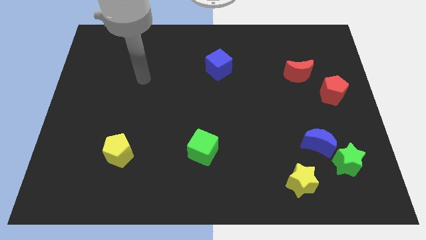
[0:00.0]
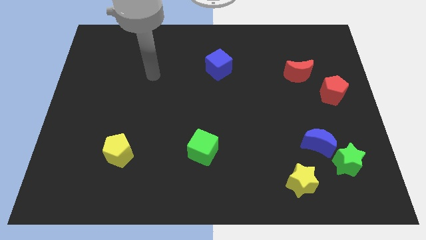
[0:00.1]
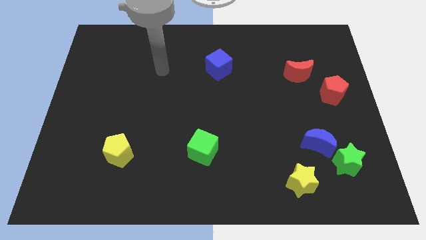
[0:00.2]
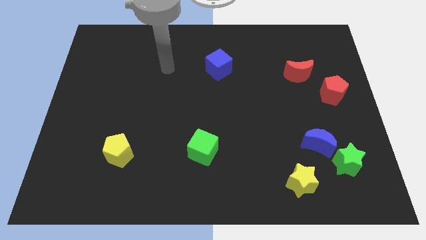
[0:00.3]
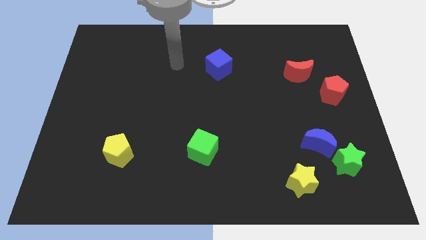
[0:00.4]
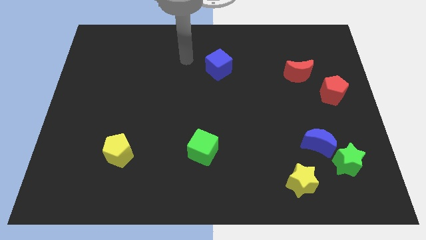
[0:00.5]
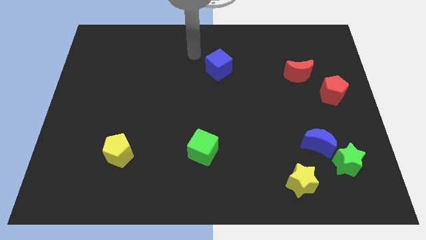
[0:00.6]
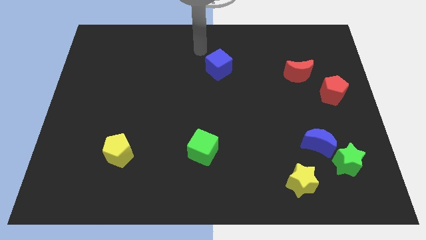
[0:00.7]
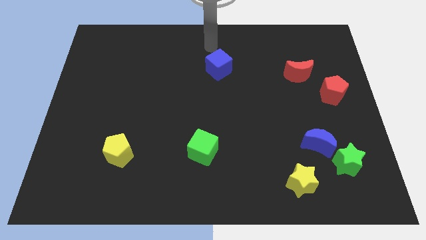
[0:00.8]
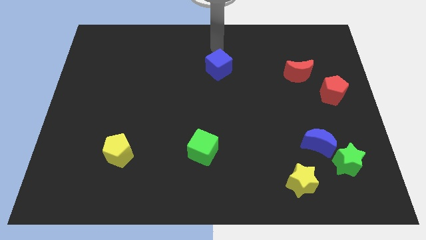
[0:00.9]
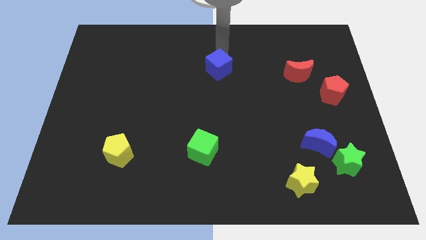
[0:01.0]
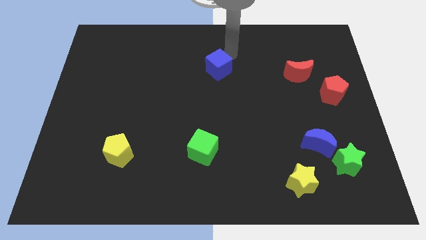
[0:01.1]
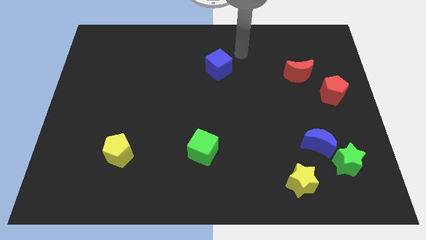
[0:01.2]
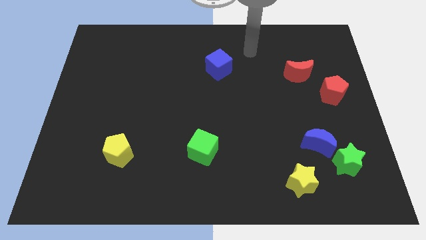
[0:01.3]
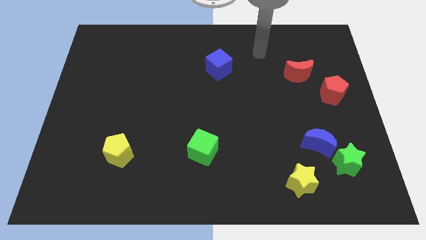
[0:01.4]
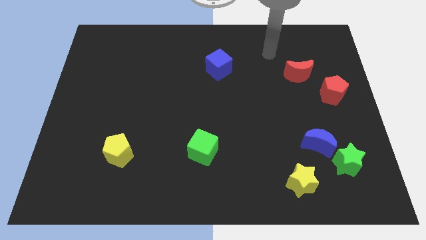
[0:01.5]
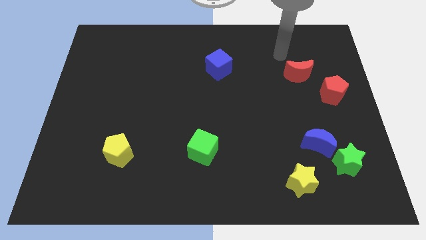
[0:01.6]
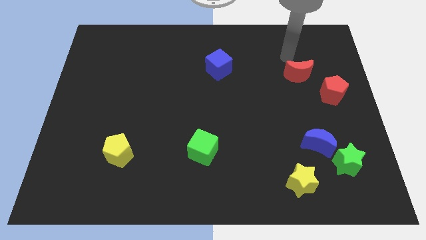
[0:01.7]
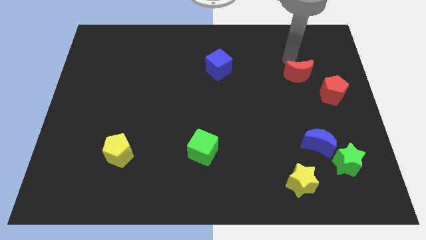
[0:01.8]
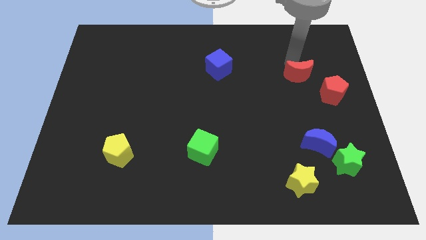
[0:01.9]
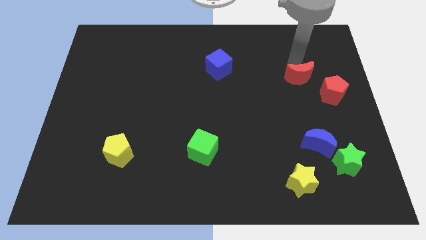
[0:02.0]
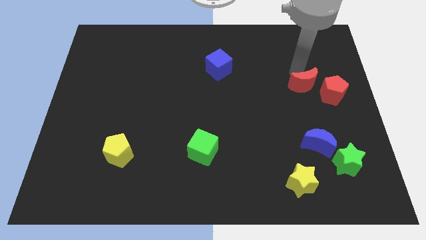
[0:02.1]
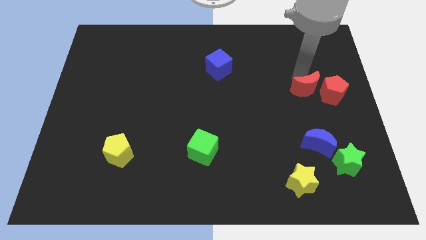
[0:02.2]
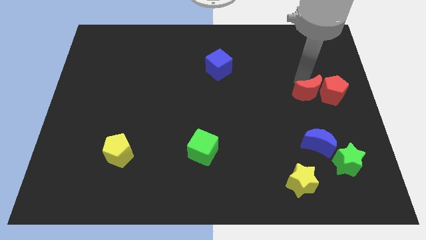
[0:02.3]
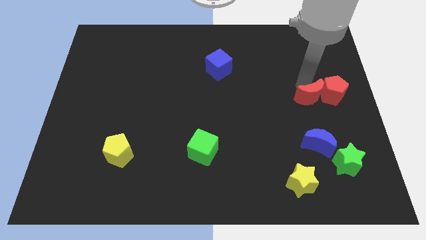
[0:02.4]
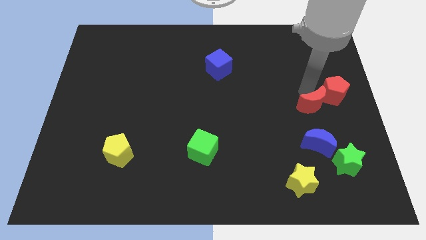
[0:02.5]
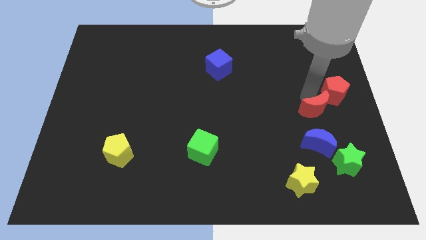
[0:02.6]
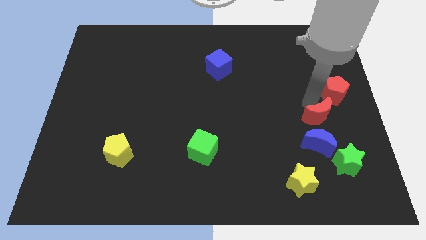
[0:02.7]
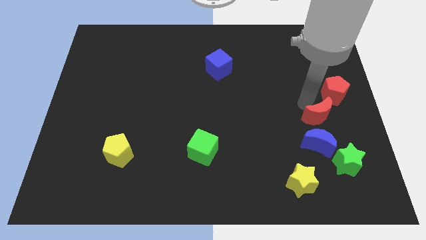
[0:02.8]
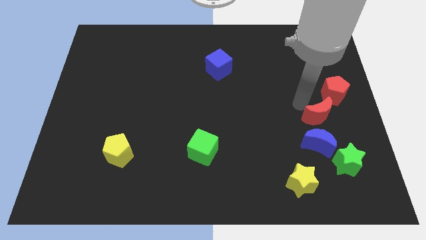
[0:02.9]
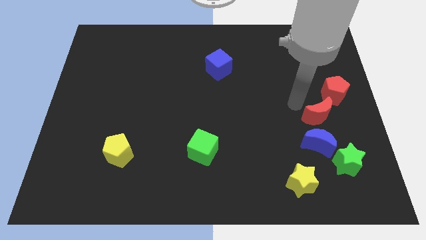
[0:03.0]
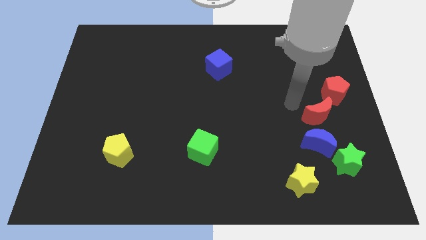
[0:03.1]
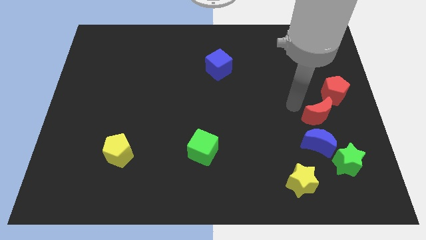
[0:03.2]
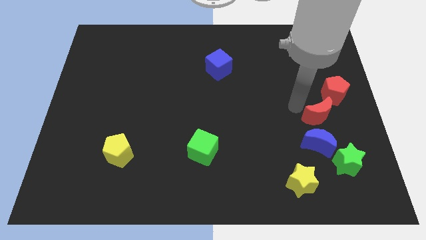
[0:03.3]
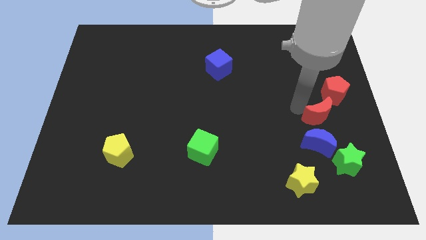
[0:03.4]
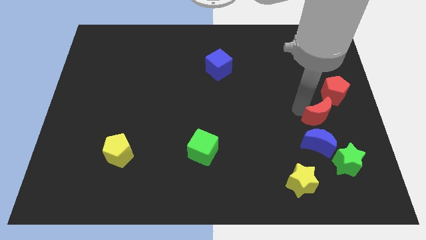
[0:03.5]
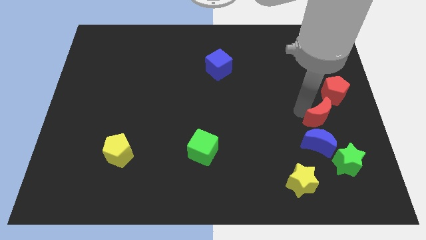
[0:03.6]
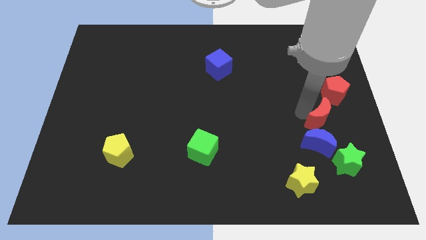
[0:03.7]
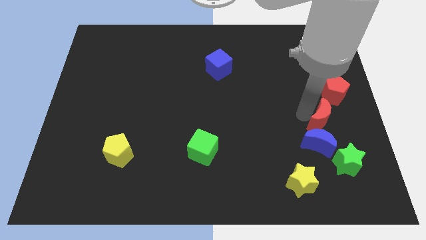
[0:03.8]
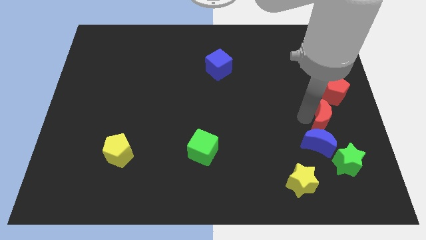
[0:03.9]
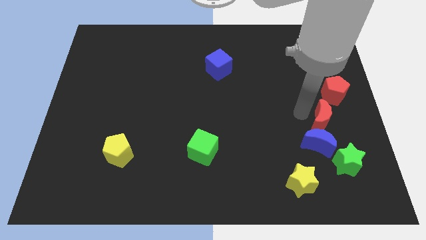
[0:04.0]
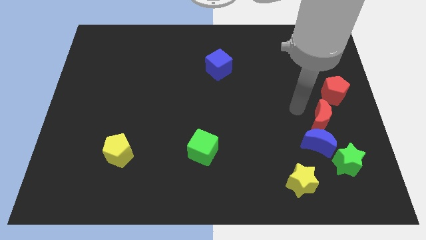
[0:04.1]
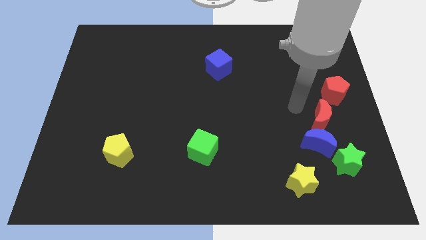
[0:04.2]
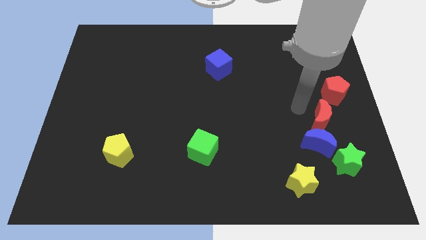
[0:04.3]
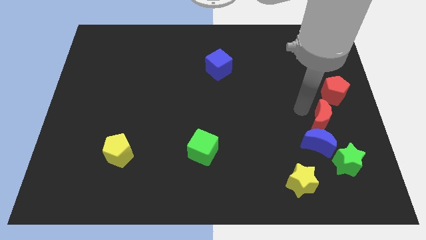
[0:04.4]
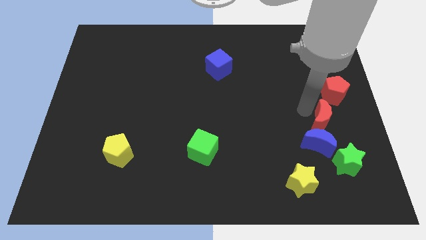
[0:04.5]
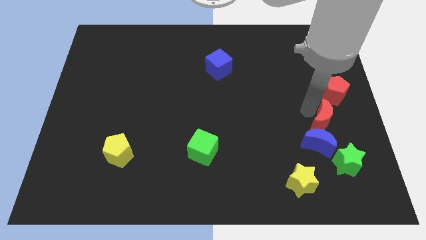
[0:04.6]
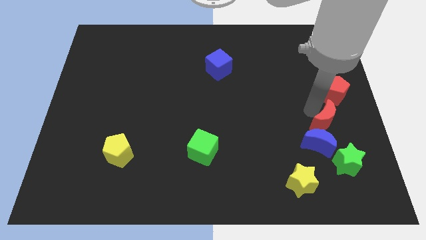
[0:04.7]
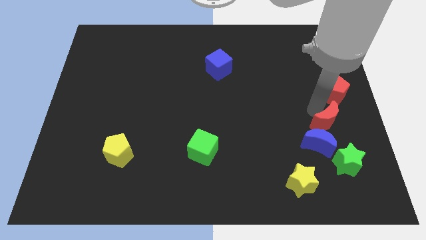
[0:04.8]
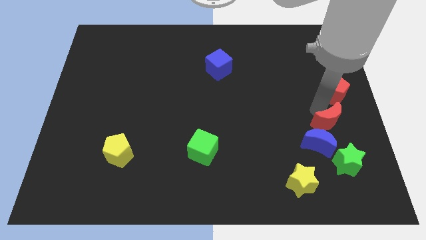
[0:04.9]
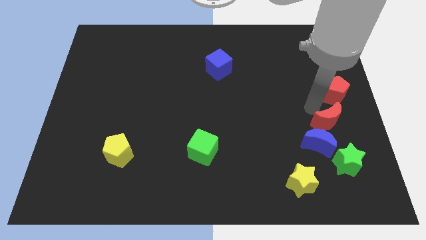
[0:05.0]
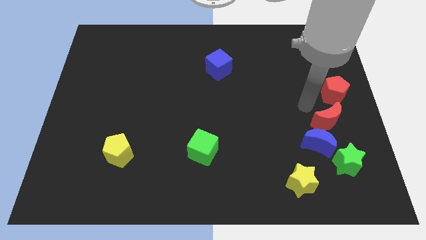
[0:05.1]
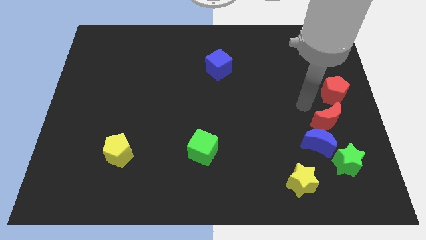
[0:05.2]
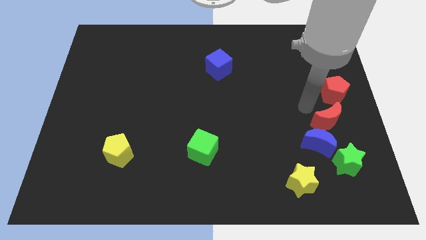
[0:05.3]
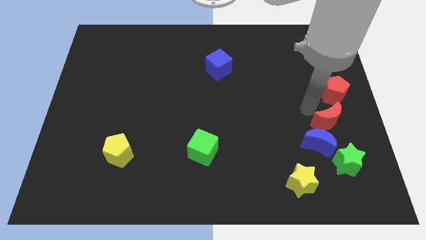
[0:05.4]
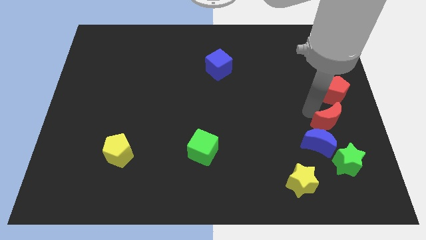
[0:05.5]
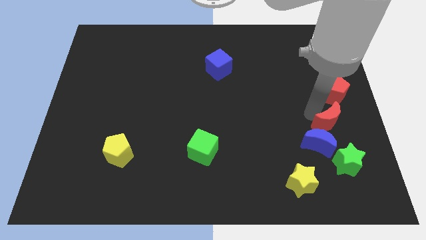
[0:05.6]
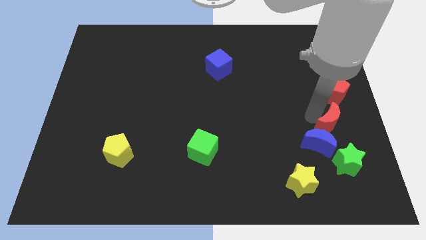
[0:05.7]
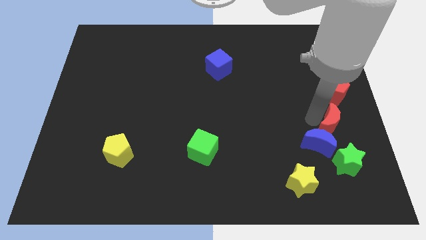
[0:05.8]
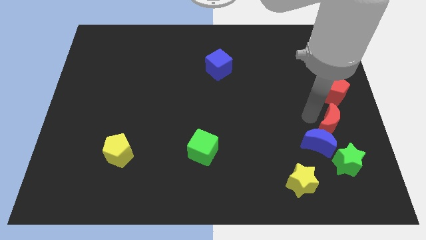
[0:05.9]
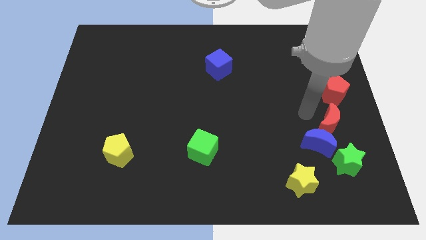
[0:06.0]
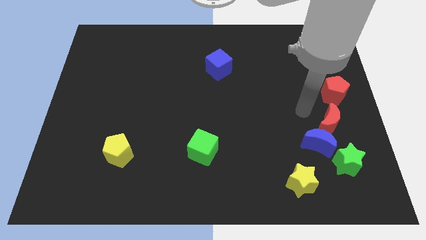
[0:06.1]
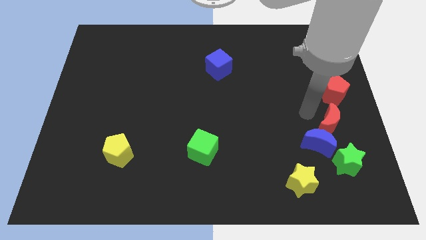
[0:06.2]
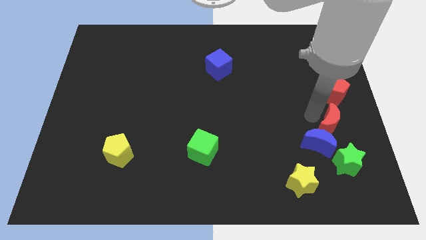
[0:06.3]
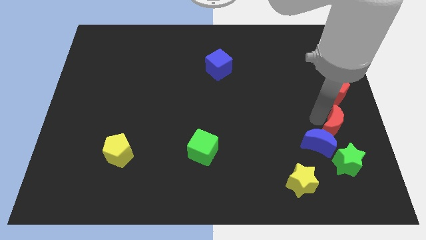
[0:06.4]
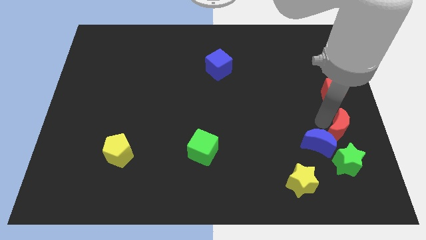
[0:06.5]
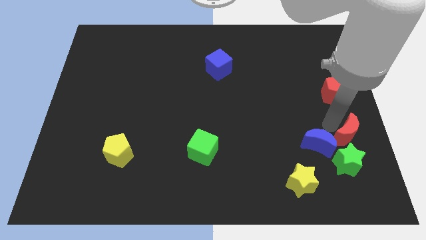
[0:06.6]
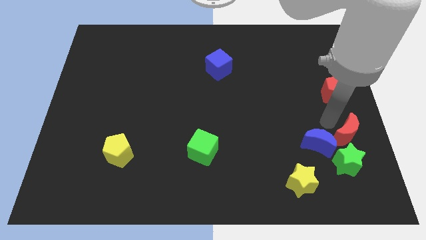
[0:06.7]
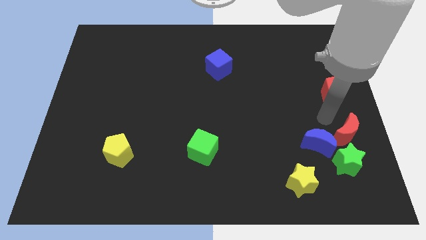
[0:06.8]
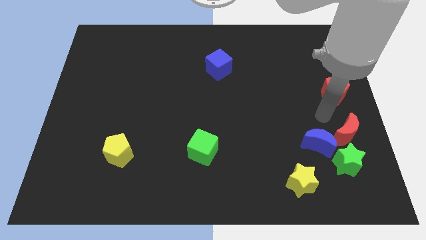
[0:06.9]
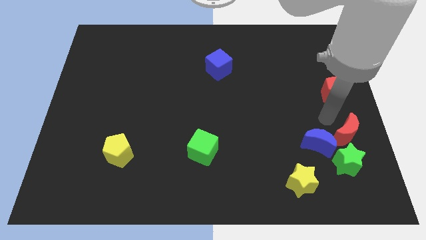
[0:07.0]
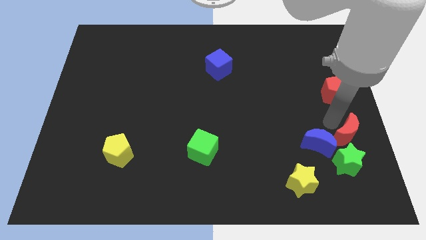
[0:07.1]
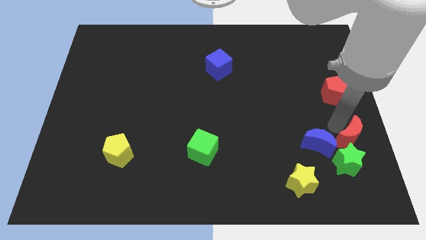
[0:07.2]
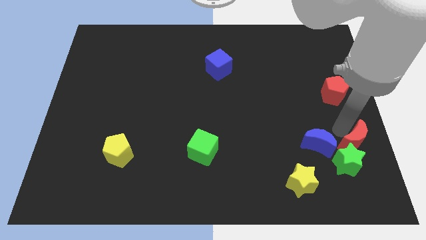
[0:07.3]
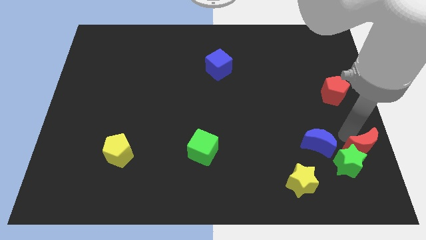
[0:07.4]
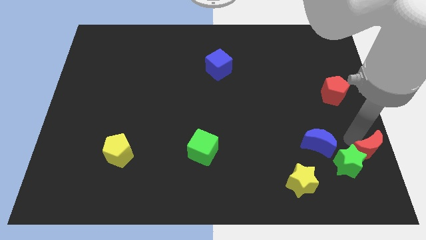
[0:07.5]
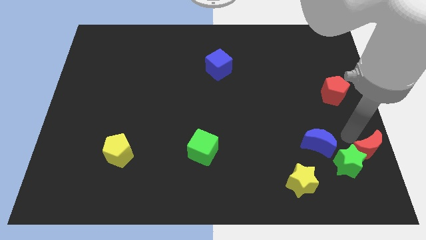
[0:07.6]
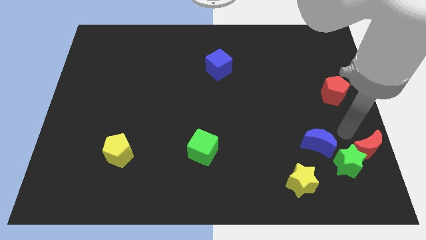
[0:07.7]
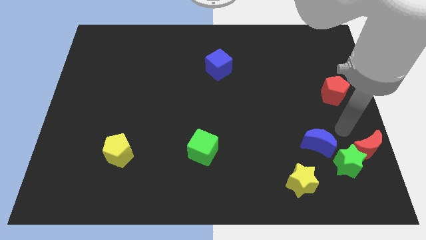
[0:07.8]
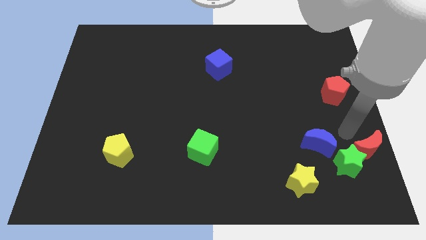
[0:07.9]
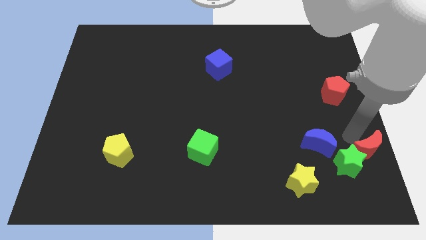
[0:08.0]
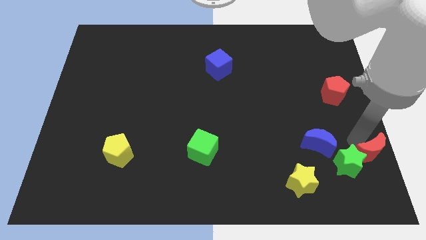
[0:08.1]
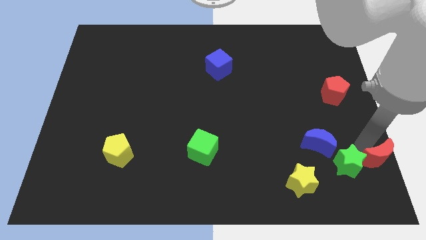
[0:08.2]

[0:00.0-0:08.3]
move the red moon to the bottom right of the board
